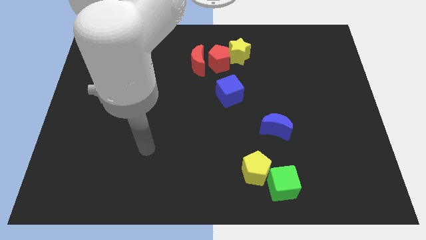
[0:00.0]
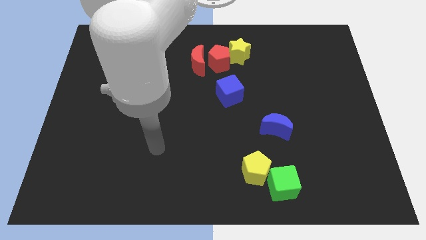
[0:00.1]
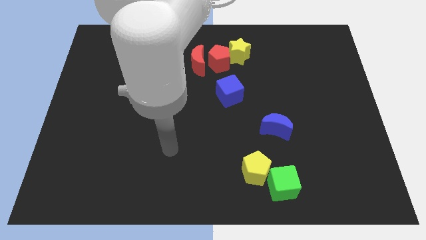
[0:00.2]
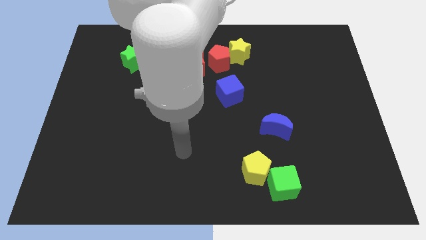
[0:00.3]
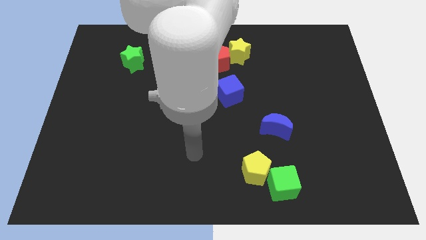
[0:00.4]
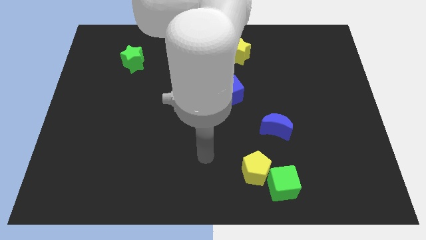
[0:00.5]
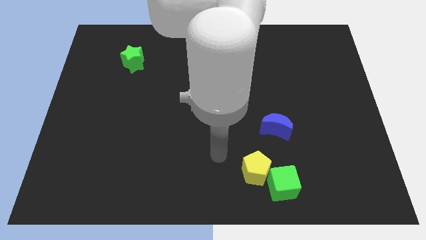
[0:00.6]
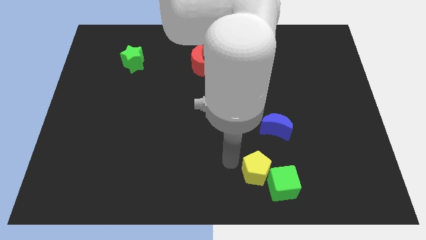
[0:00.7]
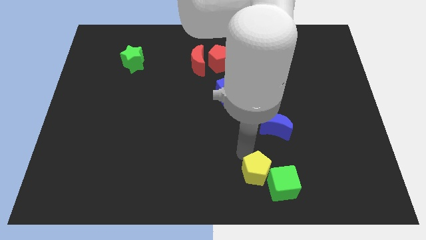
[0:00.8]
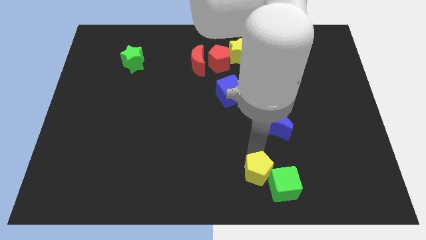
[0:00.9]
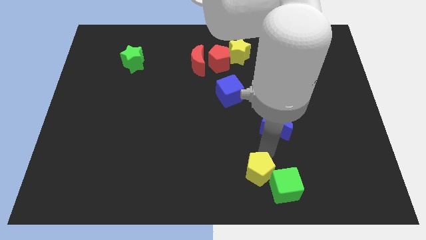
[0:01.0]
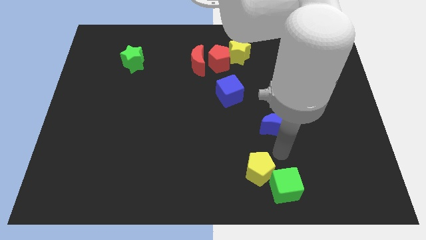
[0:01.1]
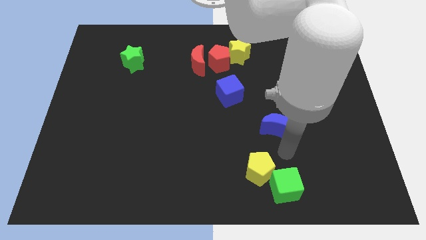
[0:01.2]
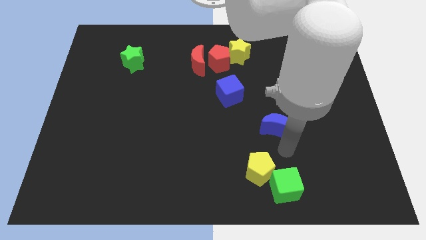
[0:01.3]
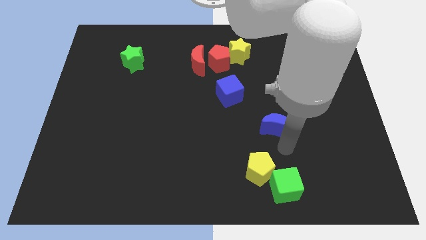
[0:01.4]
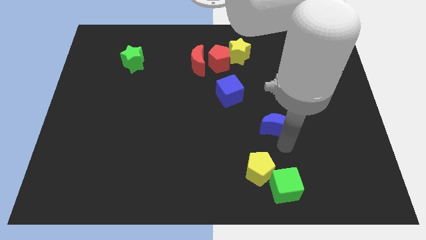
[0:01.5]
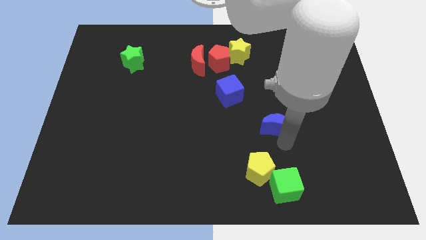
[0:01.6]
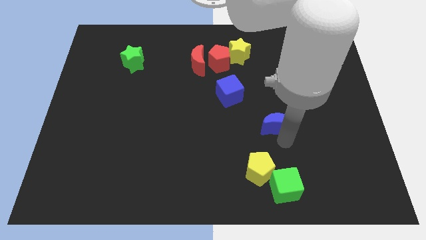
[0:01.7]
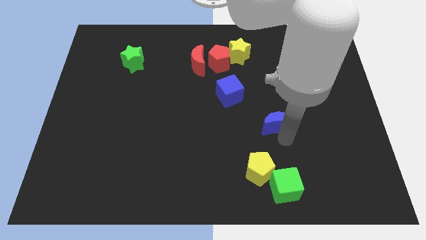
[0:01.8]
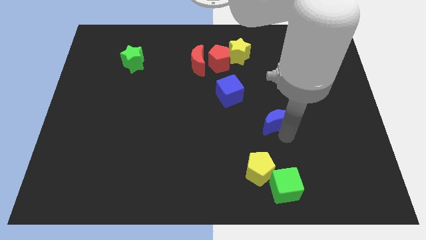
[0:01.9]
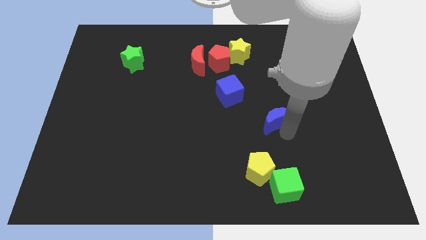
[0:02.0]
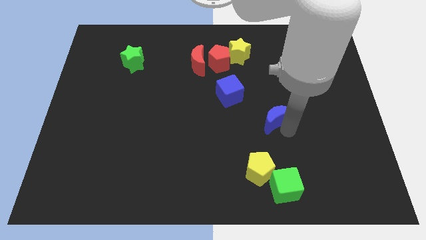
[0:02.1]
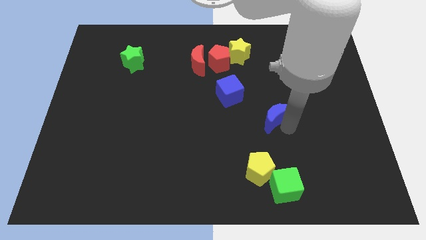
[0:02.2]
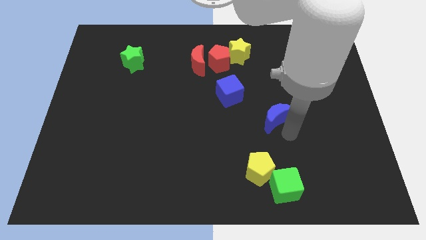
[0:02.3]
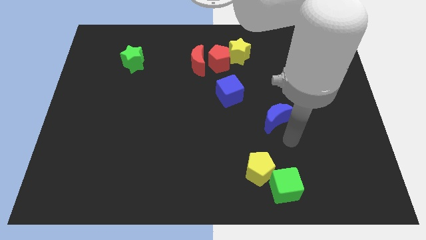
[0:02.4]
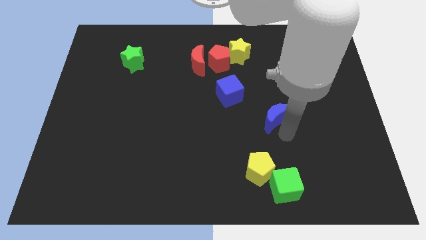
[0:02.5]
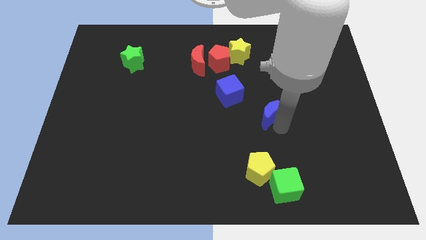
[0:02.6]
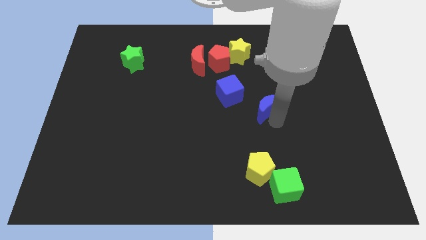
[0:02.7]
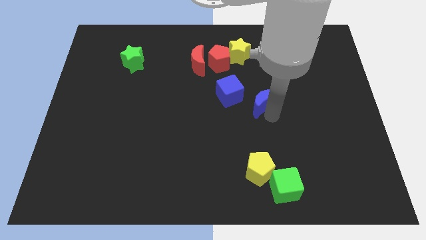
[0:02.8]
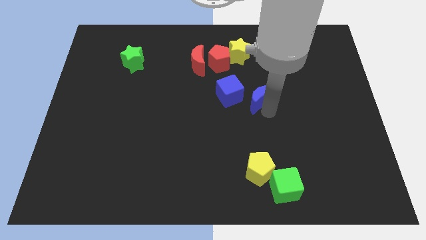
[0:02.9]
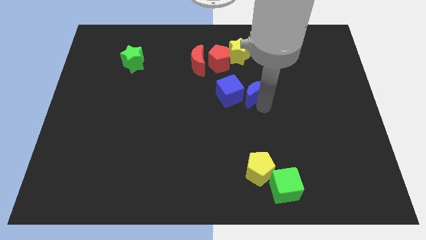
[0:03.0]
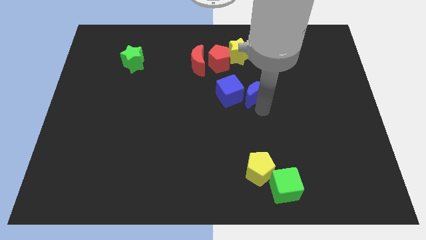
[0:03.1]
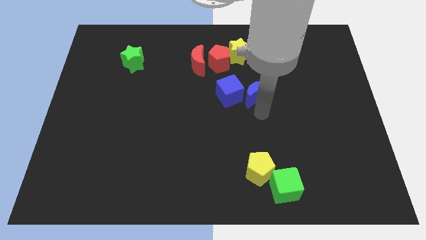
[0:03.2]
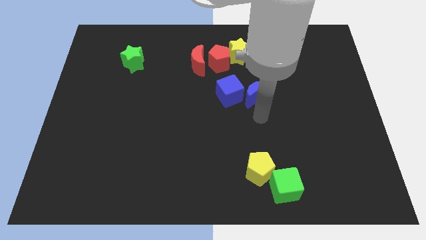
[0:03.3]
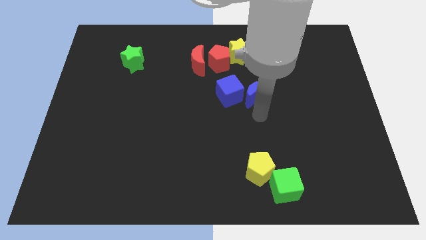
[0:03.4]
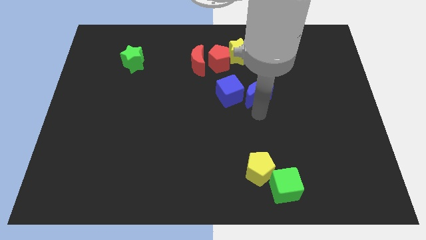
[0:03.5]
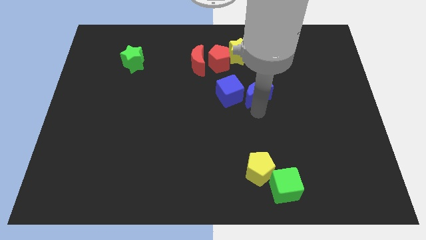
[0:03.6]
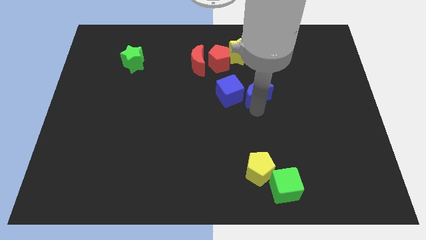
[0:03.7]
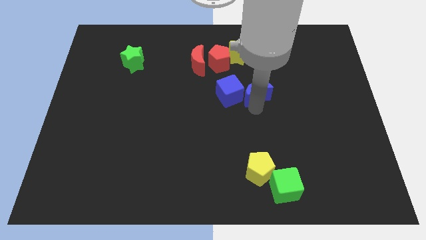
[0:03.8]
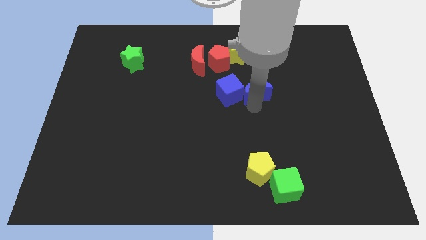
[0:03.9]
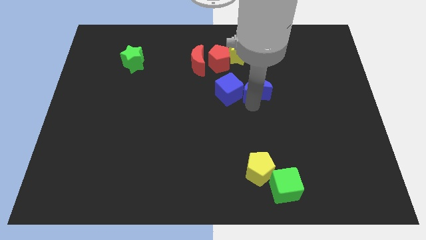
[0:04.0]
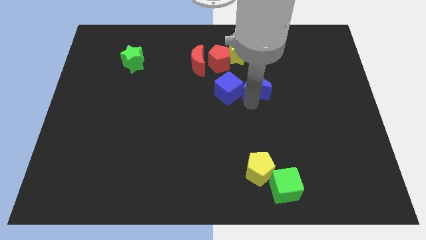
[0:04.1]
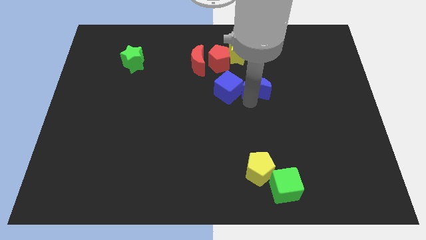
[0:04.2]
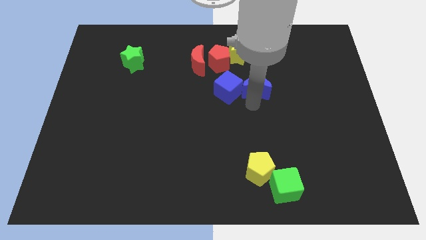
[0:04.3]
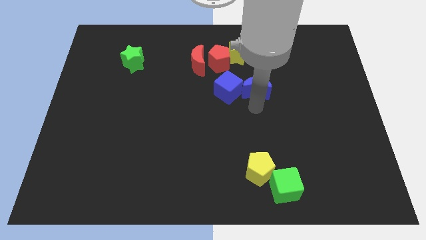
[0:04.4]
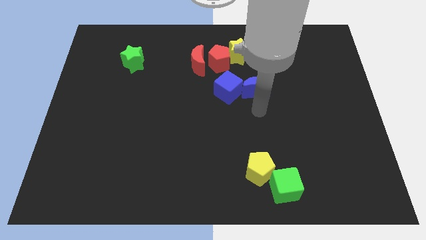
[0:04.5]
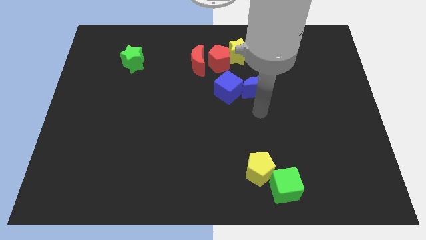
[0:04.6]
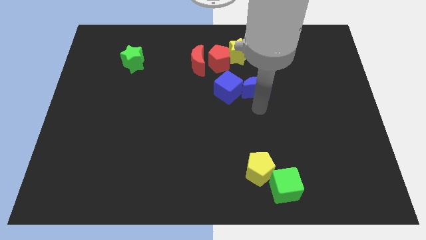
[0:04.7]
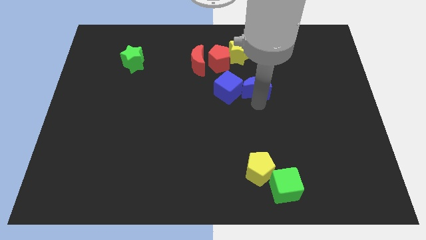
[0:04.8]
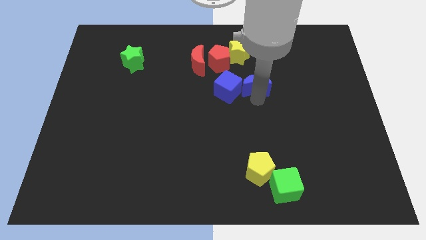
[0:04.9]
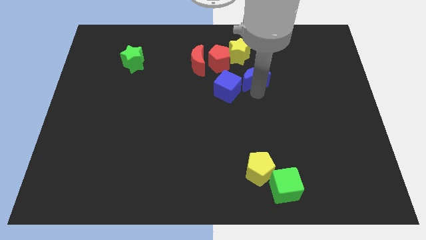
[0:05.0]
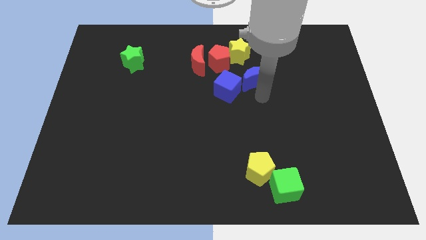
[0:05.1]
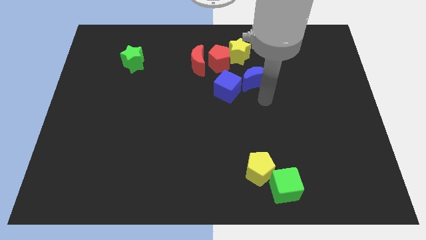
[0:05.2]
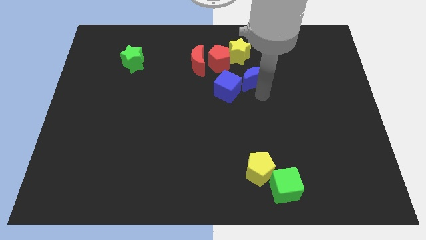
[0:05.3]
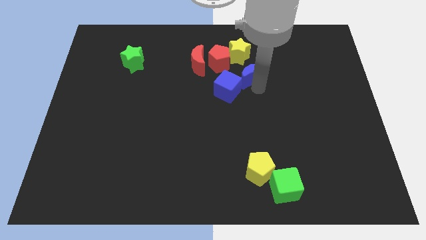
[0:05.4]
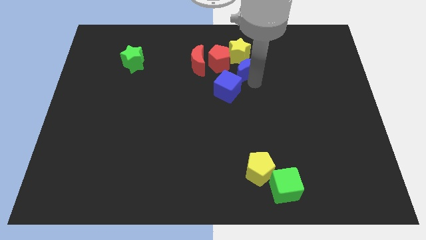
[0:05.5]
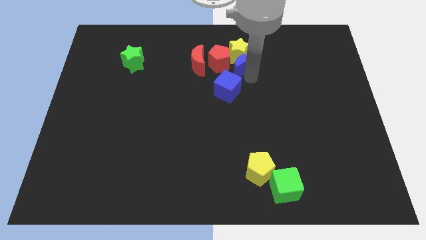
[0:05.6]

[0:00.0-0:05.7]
put the blue moon towards the yellow star

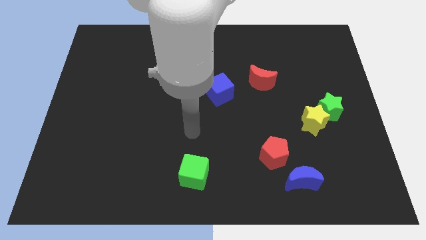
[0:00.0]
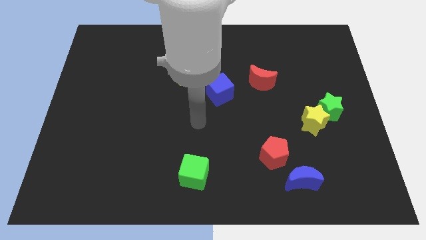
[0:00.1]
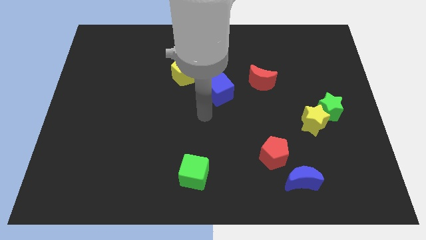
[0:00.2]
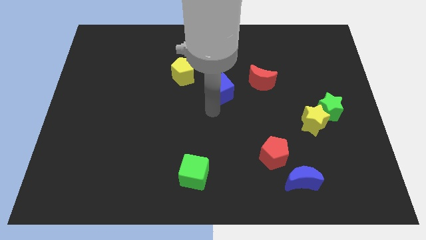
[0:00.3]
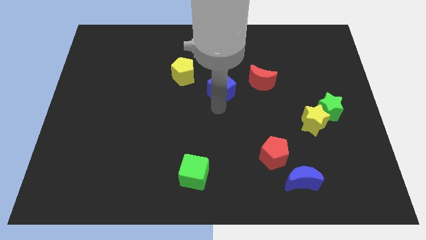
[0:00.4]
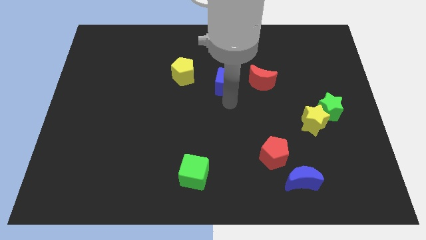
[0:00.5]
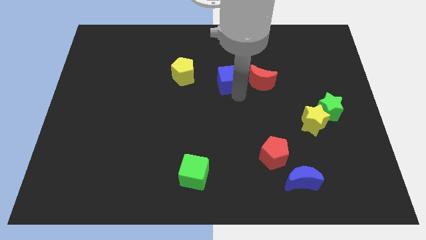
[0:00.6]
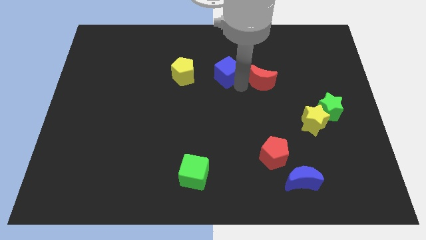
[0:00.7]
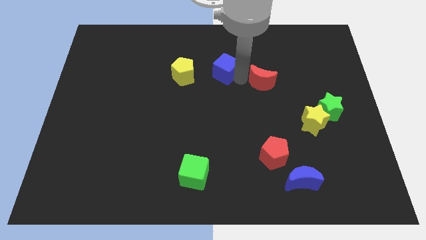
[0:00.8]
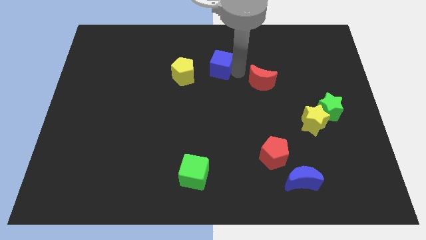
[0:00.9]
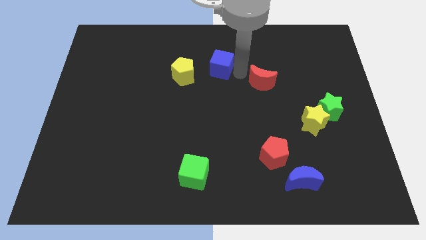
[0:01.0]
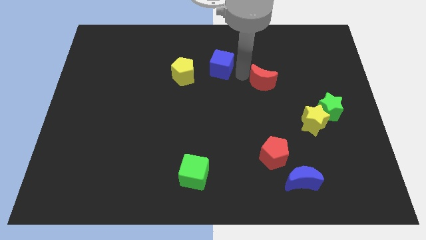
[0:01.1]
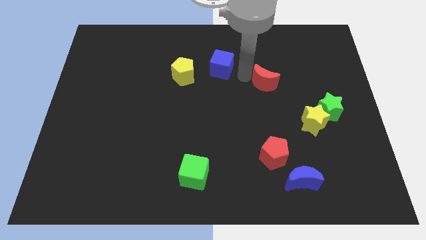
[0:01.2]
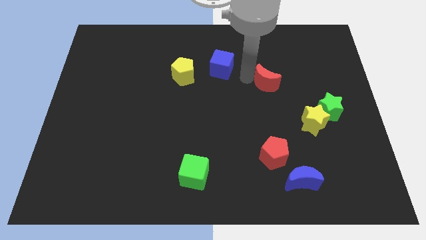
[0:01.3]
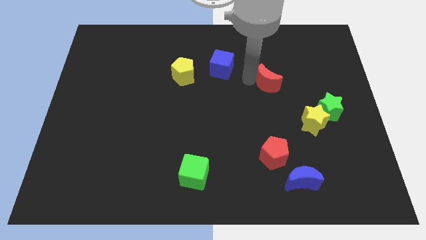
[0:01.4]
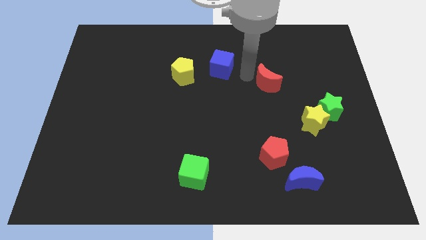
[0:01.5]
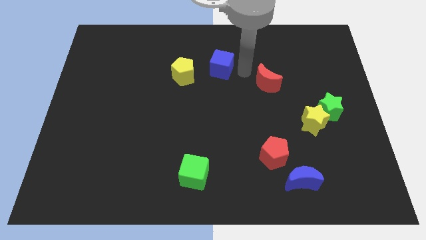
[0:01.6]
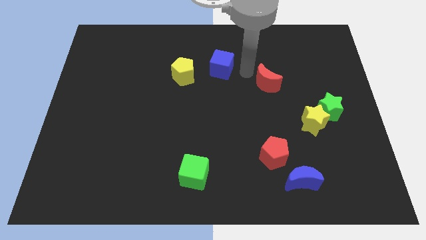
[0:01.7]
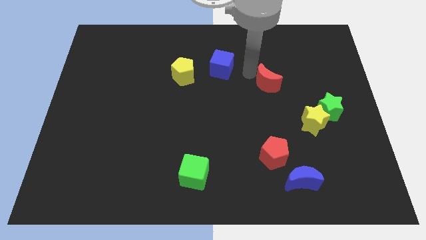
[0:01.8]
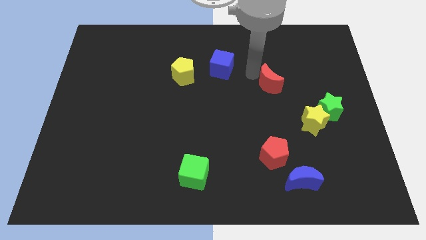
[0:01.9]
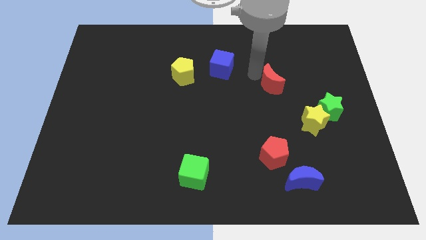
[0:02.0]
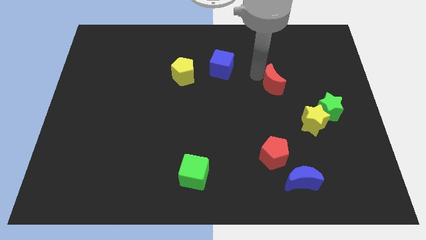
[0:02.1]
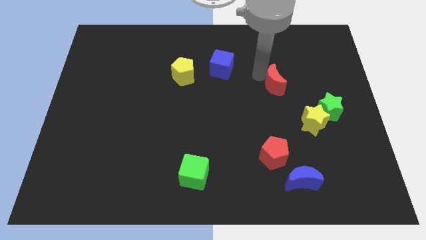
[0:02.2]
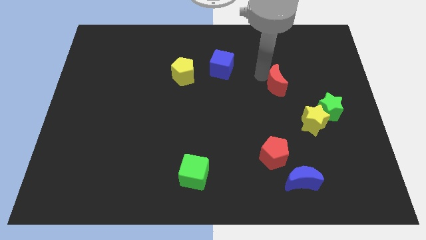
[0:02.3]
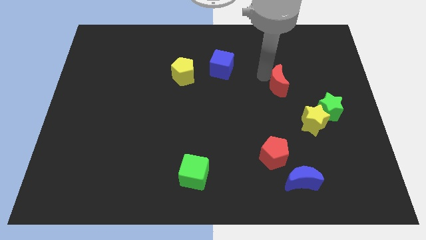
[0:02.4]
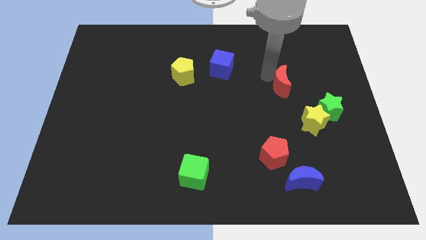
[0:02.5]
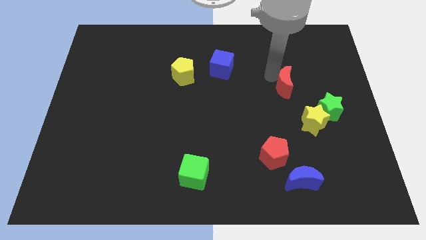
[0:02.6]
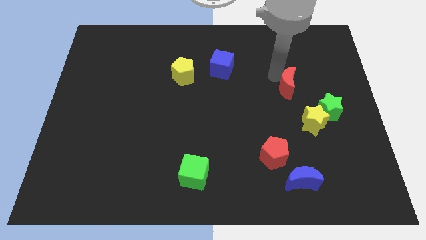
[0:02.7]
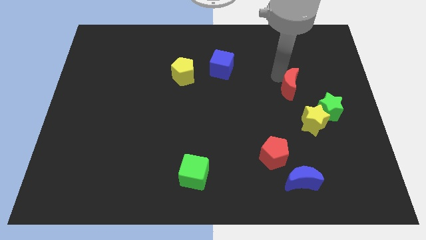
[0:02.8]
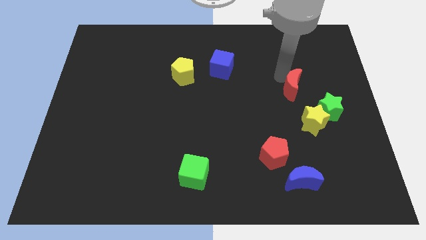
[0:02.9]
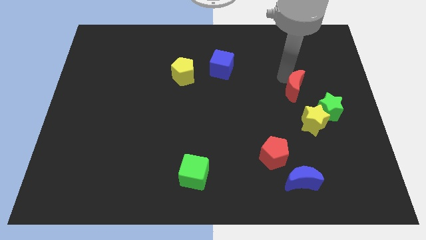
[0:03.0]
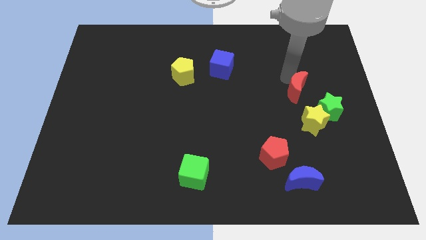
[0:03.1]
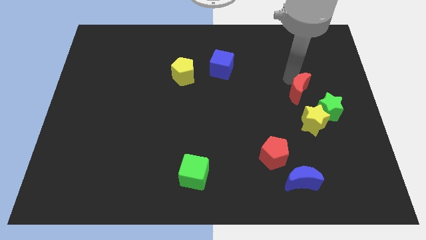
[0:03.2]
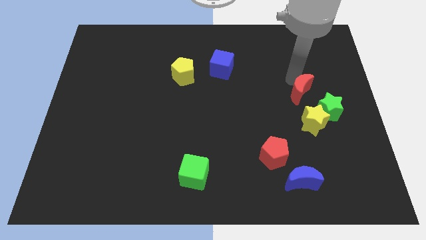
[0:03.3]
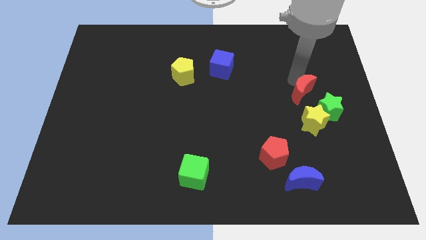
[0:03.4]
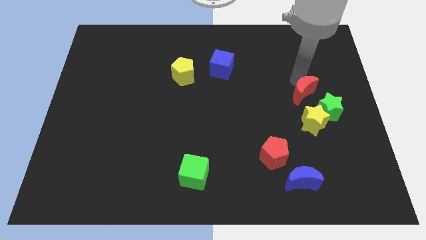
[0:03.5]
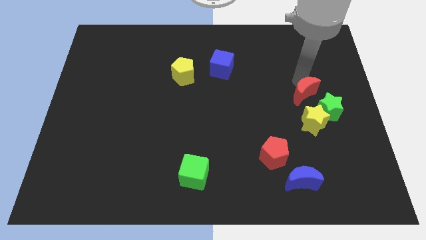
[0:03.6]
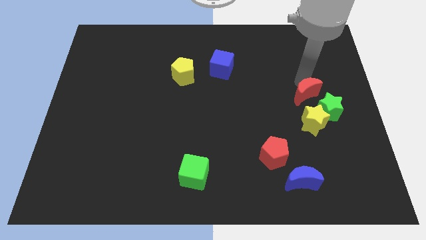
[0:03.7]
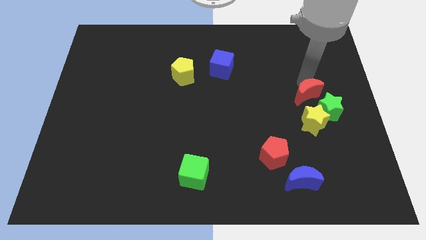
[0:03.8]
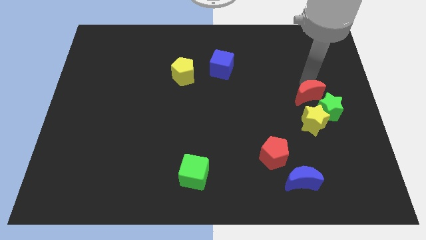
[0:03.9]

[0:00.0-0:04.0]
push the red moon towards the green star
